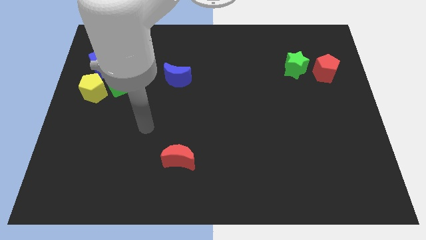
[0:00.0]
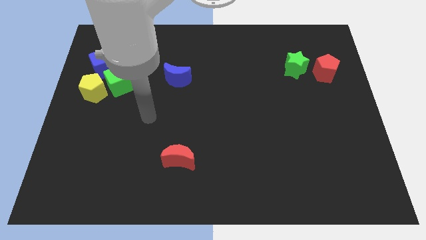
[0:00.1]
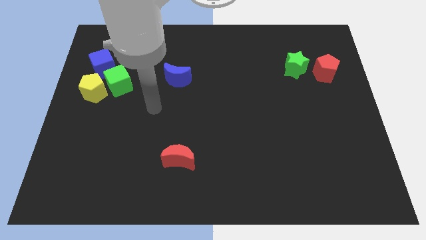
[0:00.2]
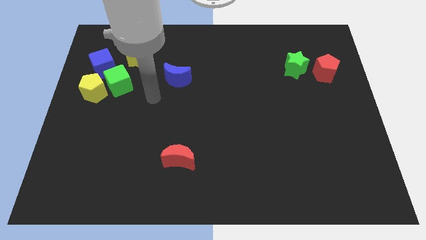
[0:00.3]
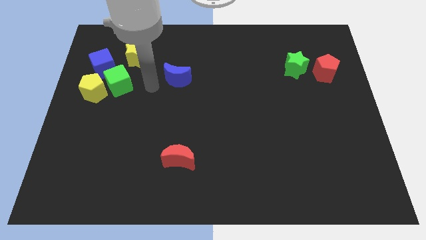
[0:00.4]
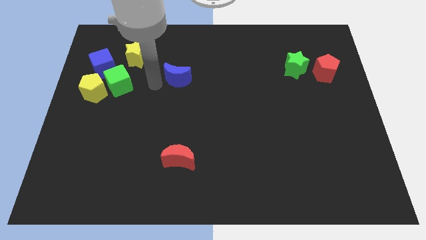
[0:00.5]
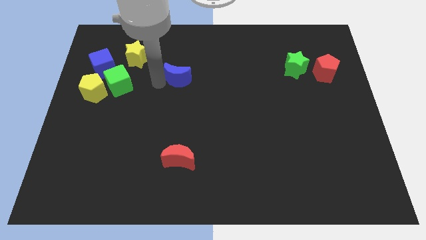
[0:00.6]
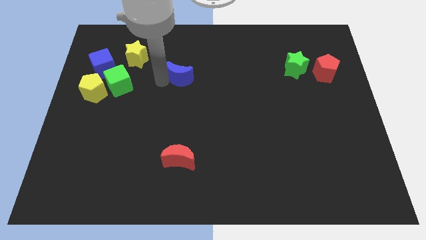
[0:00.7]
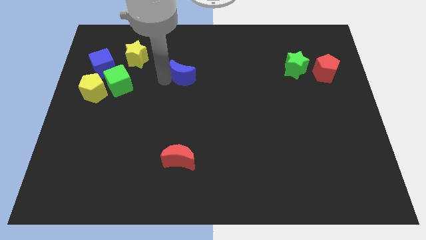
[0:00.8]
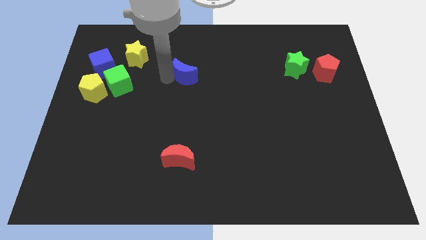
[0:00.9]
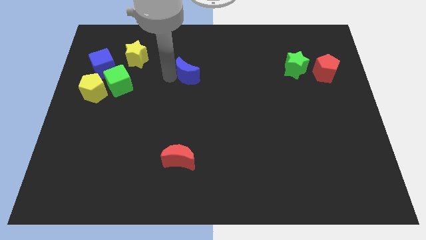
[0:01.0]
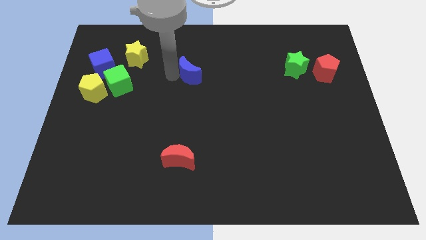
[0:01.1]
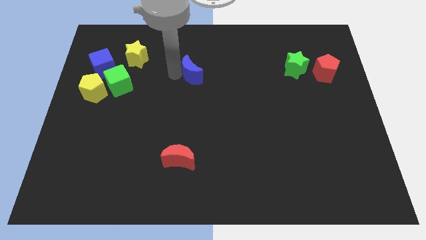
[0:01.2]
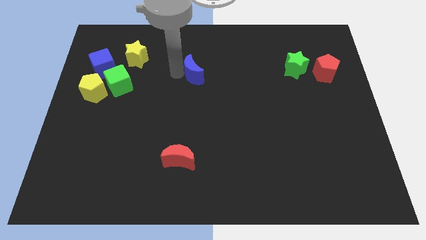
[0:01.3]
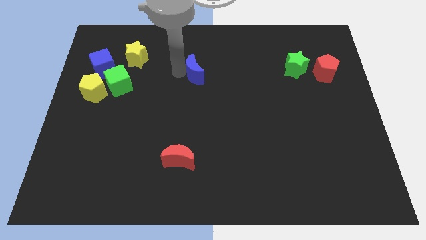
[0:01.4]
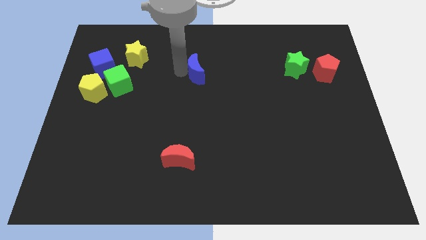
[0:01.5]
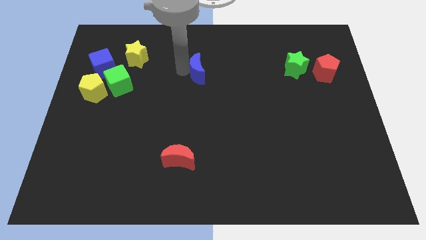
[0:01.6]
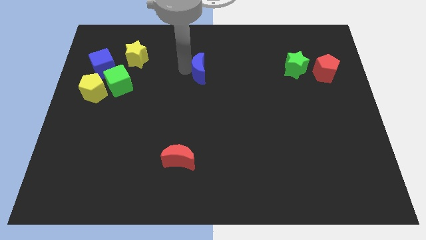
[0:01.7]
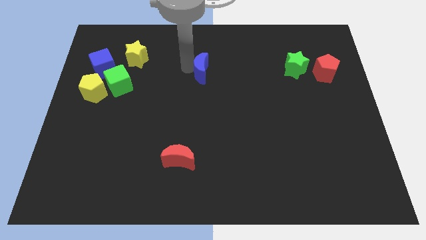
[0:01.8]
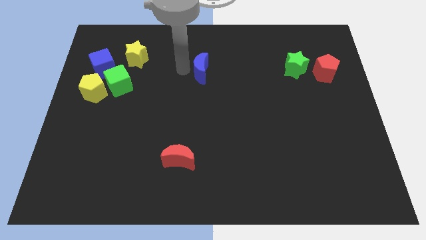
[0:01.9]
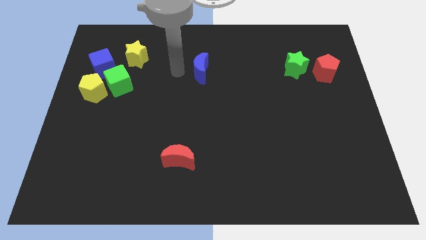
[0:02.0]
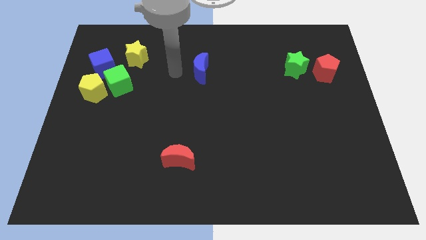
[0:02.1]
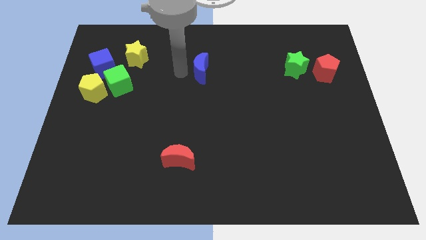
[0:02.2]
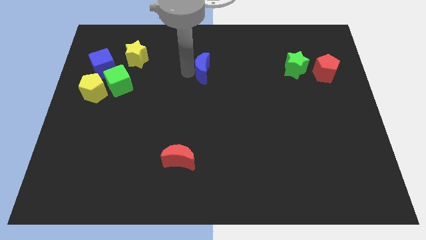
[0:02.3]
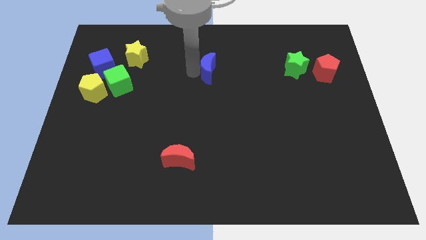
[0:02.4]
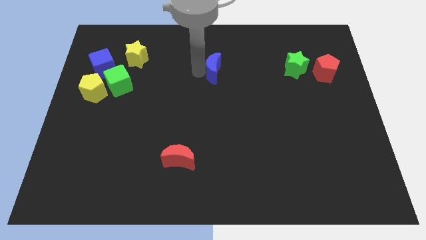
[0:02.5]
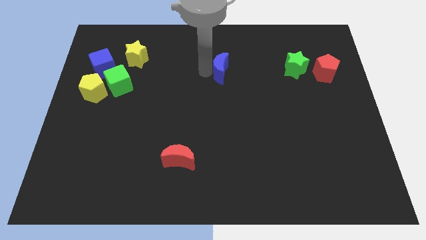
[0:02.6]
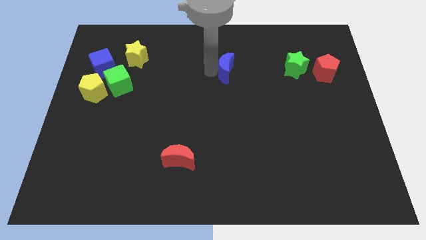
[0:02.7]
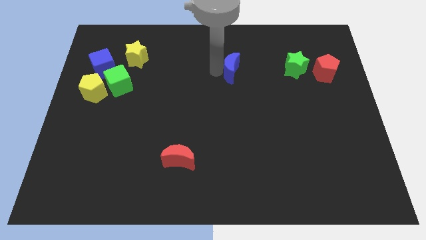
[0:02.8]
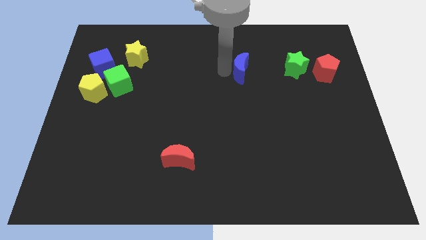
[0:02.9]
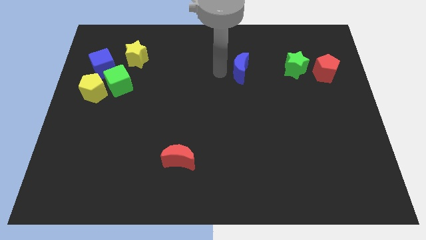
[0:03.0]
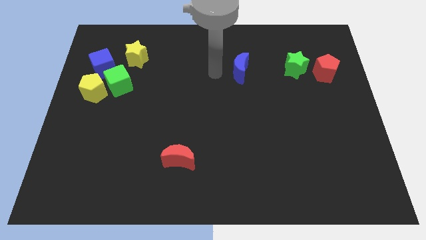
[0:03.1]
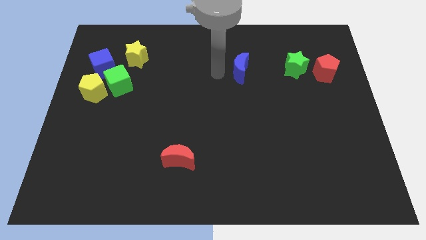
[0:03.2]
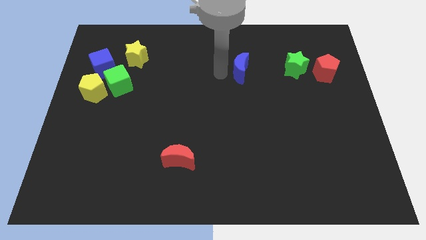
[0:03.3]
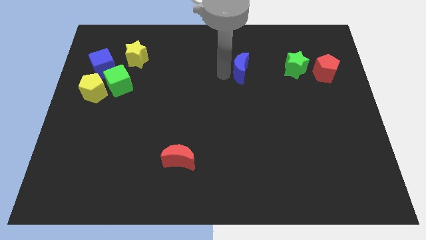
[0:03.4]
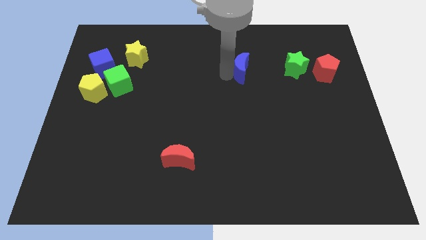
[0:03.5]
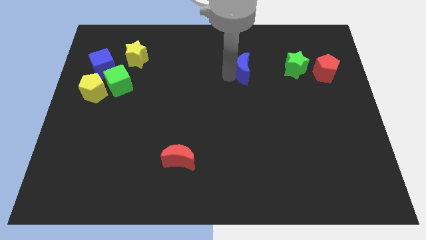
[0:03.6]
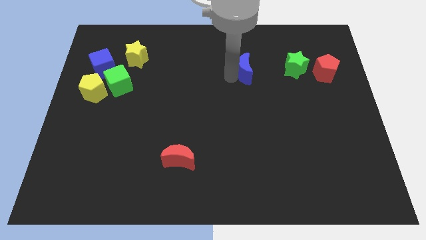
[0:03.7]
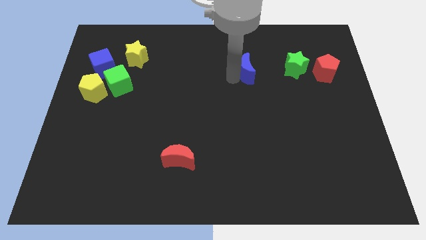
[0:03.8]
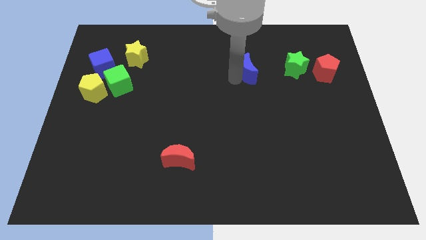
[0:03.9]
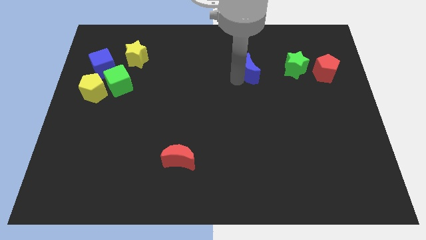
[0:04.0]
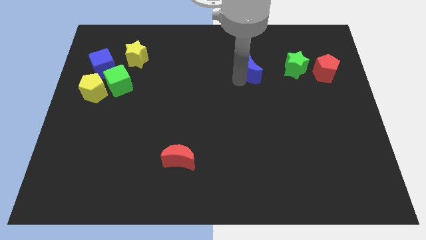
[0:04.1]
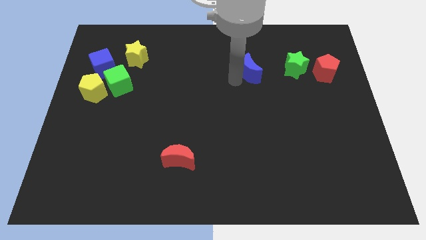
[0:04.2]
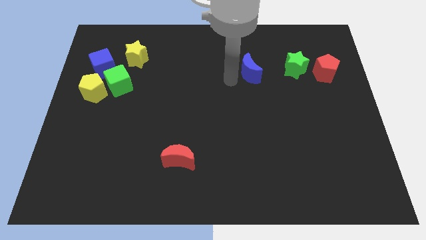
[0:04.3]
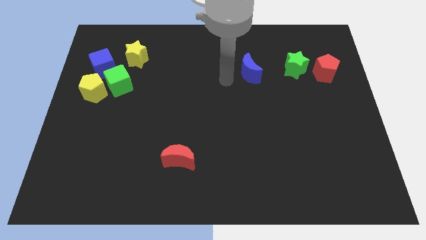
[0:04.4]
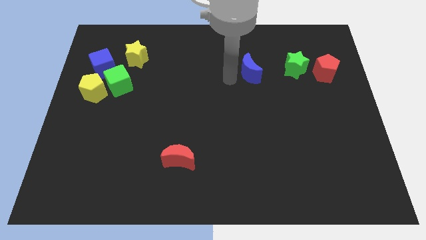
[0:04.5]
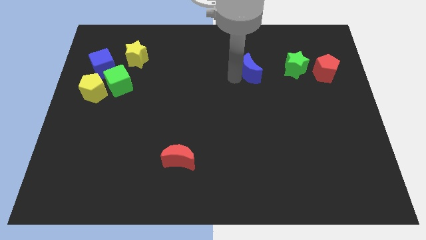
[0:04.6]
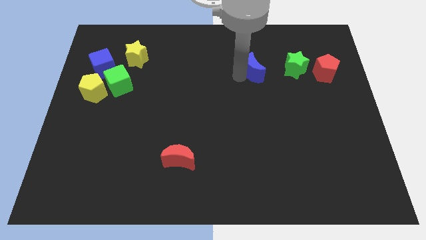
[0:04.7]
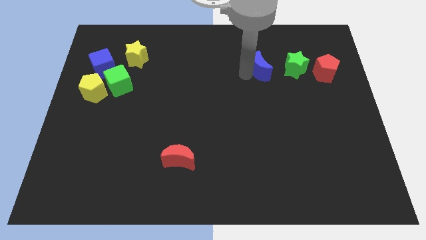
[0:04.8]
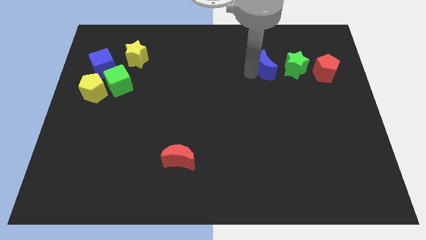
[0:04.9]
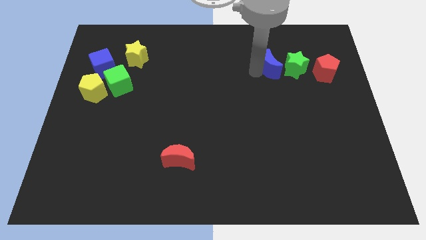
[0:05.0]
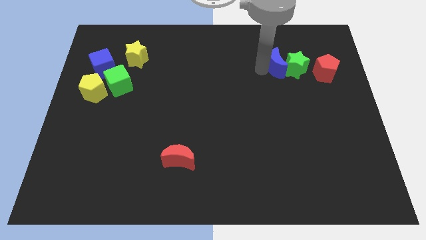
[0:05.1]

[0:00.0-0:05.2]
push the blue moon close to the green star

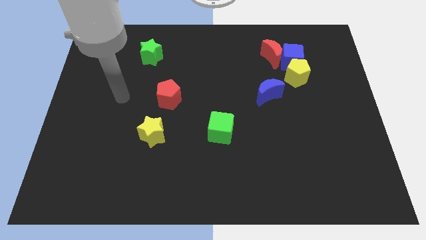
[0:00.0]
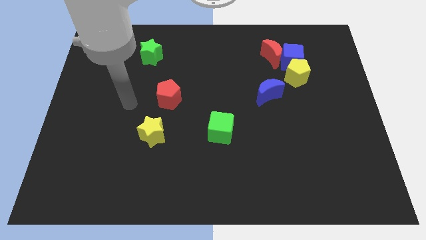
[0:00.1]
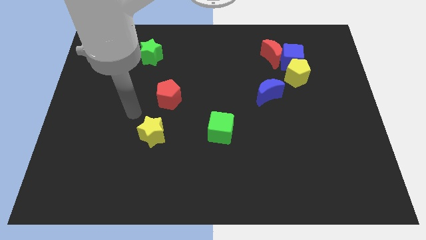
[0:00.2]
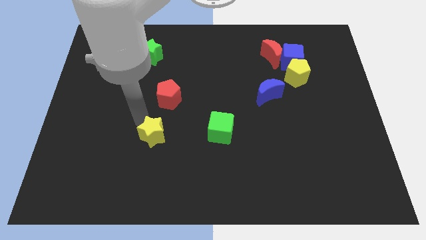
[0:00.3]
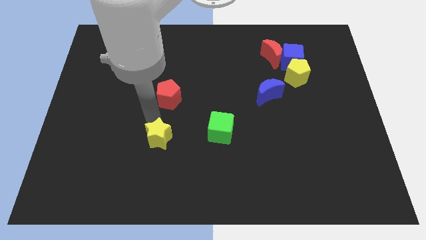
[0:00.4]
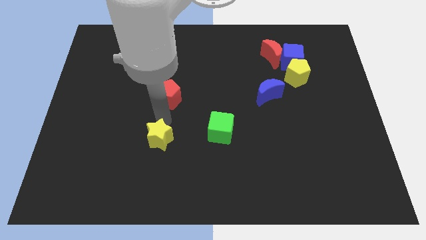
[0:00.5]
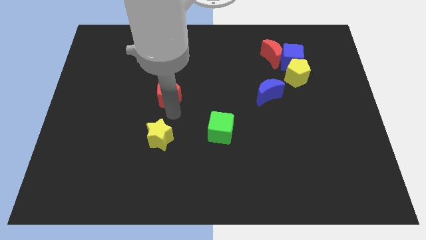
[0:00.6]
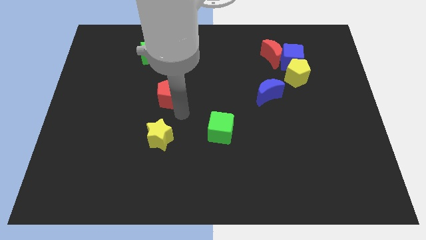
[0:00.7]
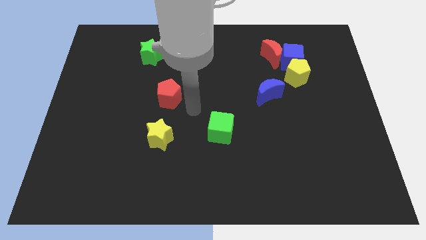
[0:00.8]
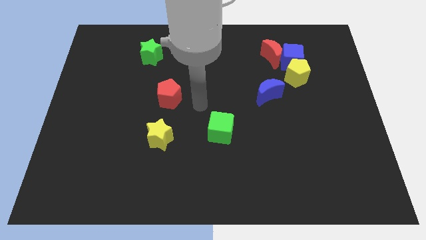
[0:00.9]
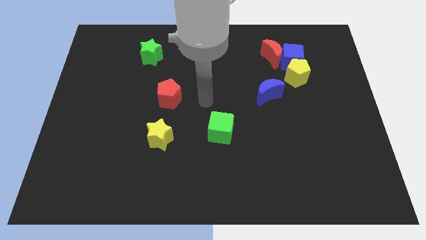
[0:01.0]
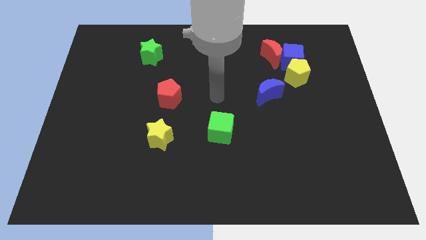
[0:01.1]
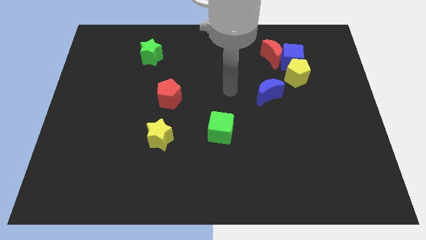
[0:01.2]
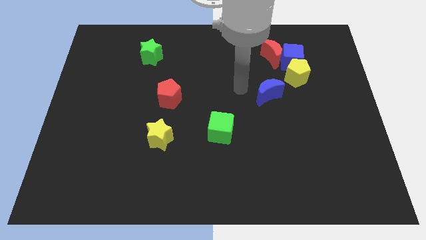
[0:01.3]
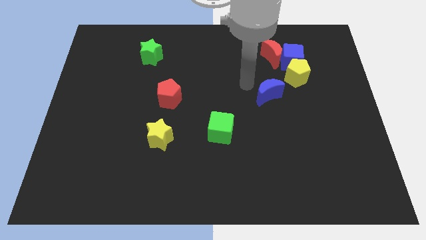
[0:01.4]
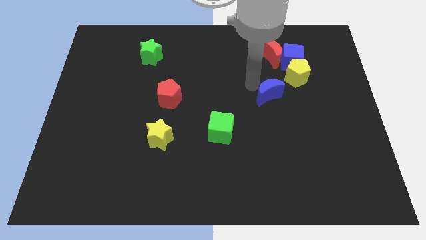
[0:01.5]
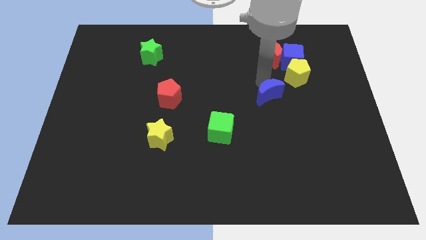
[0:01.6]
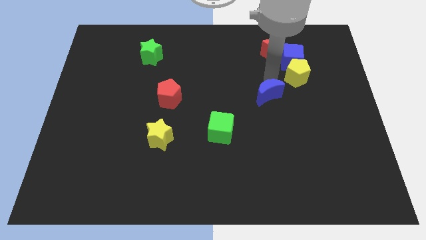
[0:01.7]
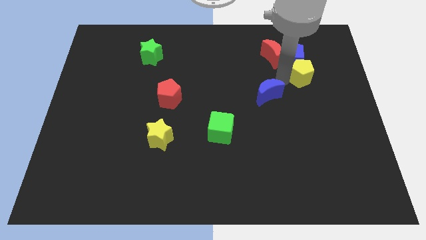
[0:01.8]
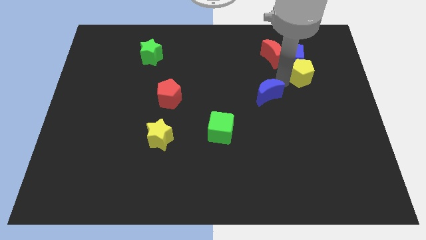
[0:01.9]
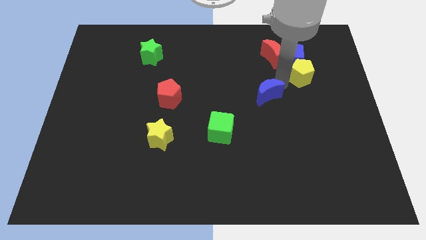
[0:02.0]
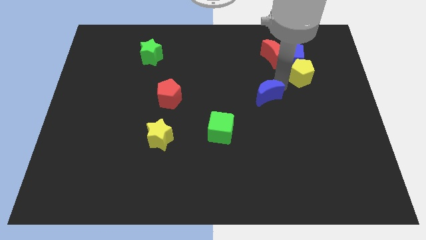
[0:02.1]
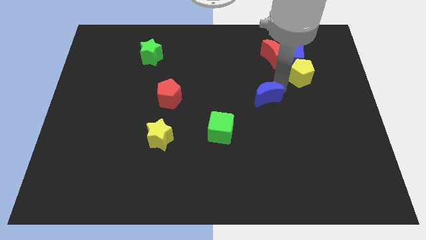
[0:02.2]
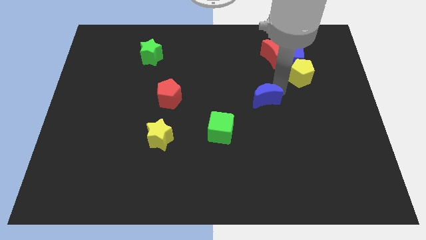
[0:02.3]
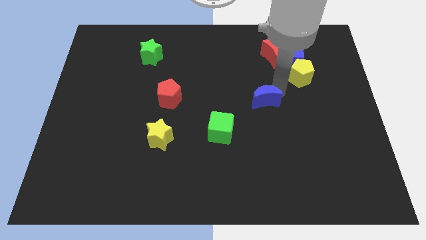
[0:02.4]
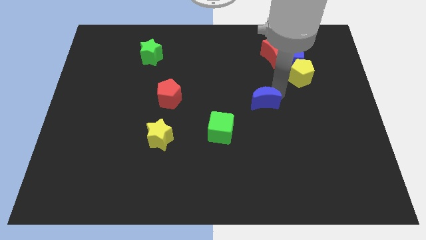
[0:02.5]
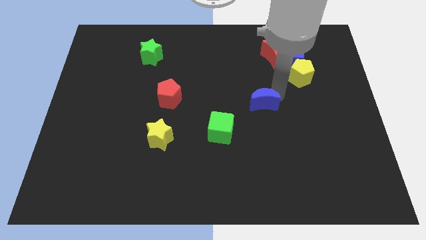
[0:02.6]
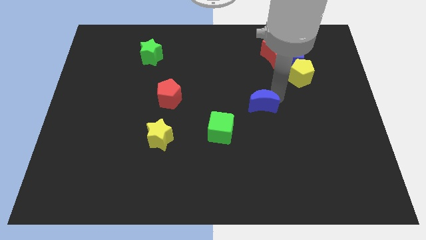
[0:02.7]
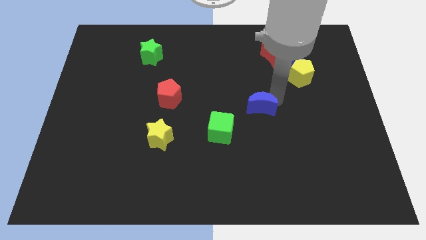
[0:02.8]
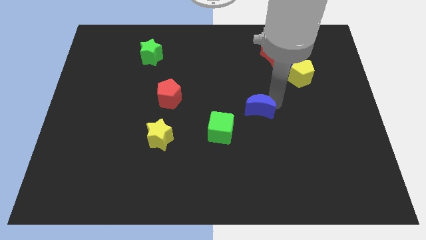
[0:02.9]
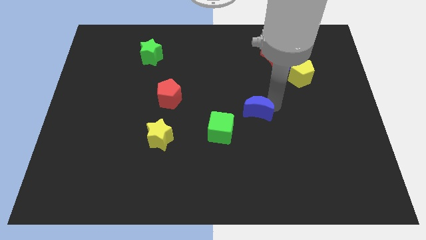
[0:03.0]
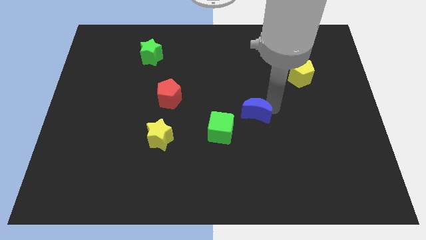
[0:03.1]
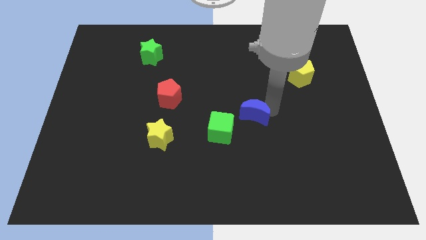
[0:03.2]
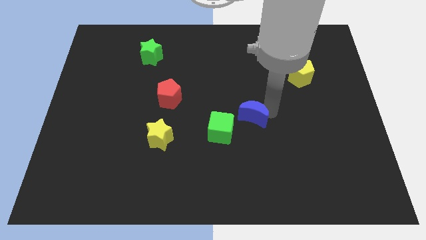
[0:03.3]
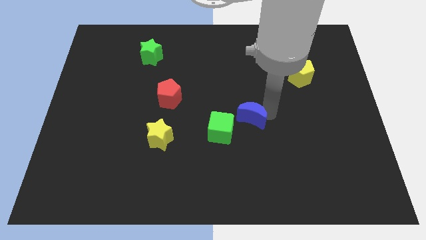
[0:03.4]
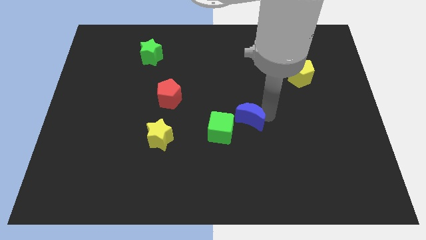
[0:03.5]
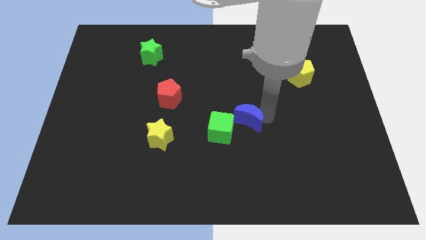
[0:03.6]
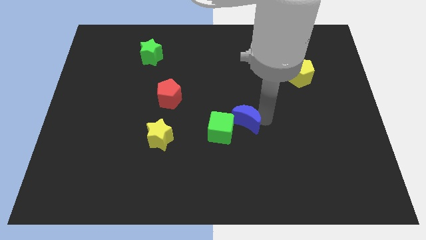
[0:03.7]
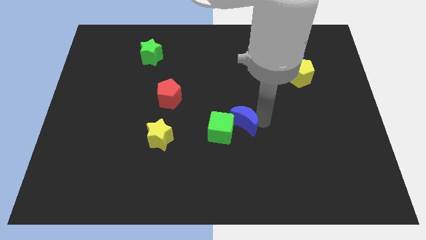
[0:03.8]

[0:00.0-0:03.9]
put the blue moon close to the green cube
